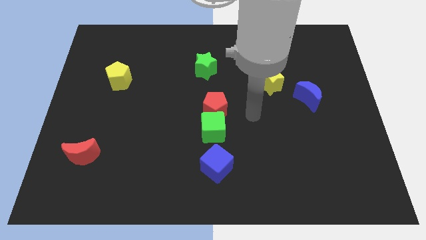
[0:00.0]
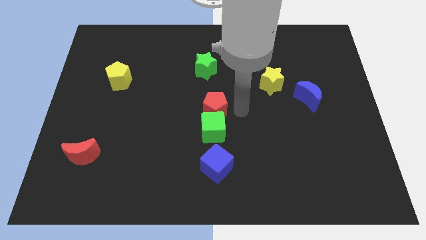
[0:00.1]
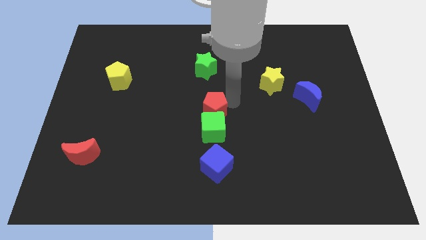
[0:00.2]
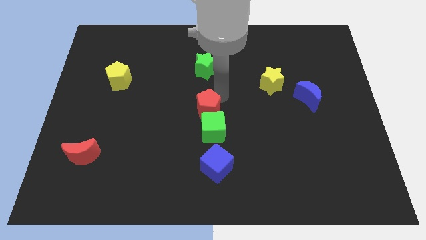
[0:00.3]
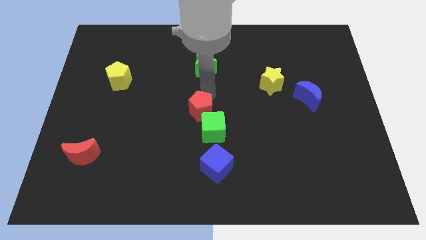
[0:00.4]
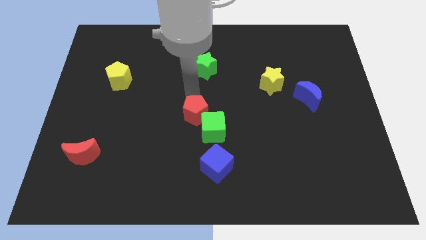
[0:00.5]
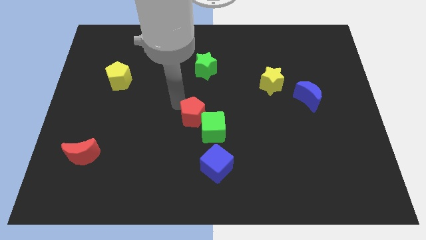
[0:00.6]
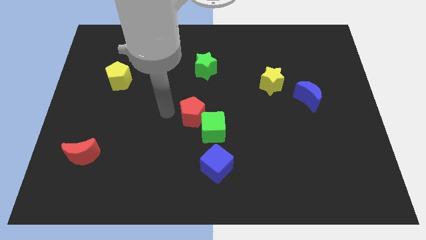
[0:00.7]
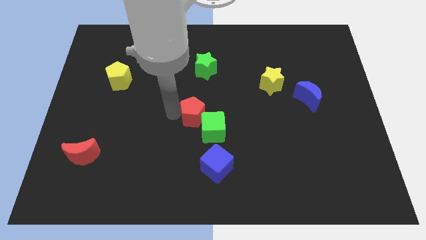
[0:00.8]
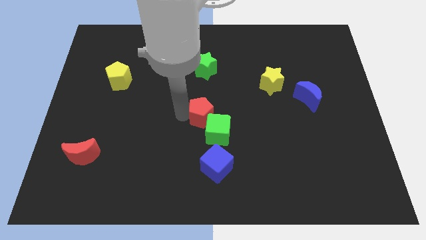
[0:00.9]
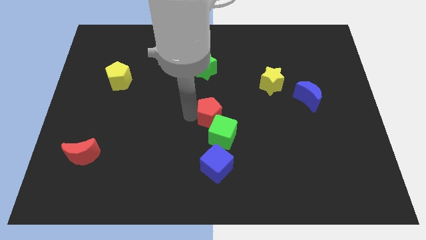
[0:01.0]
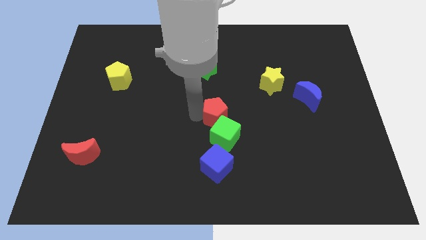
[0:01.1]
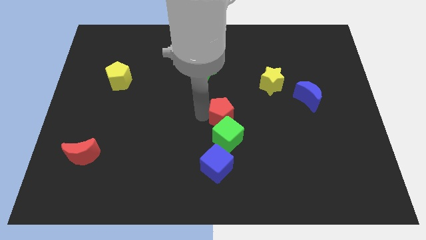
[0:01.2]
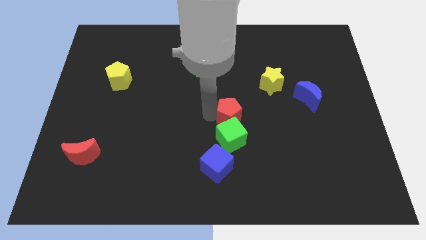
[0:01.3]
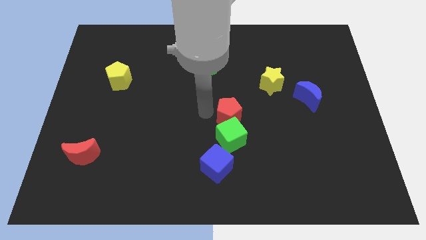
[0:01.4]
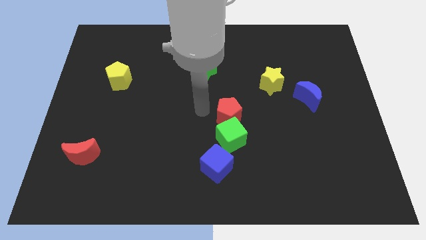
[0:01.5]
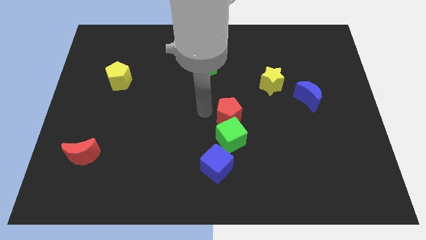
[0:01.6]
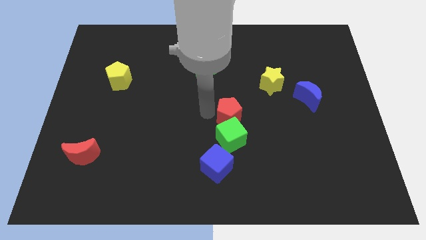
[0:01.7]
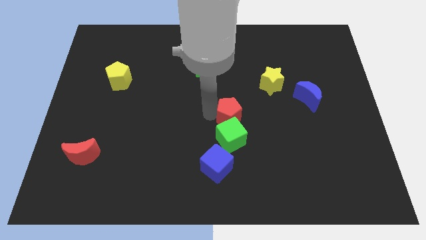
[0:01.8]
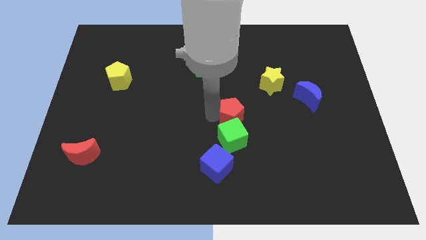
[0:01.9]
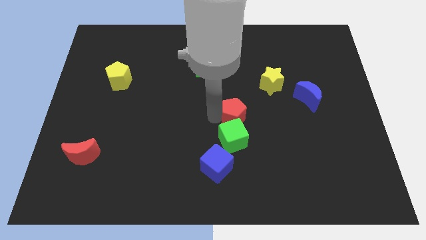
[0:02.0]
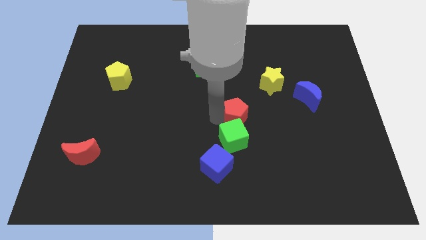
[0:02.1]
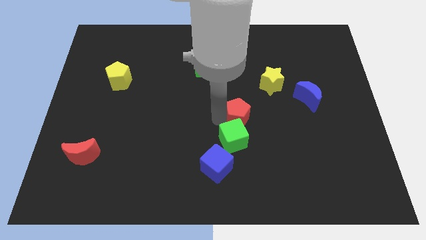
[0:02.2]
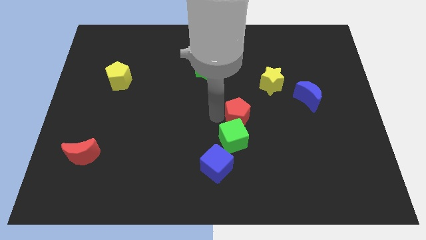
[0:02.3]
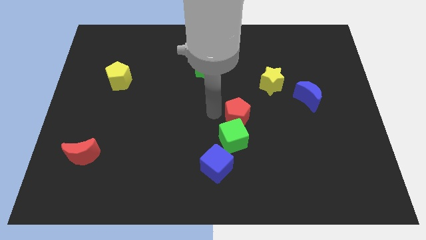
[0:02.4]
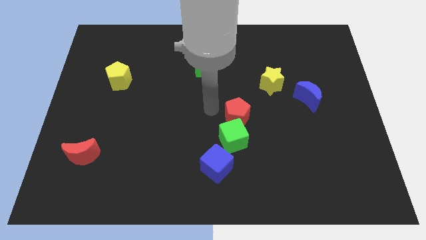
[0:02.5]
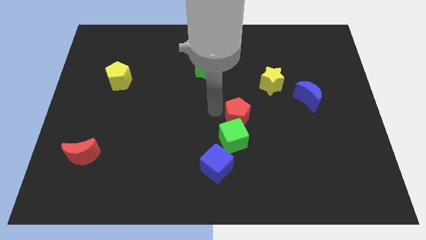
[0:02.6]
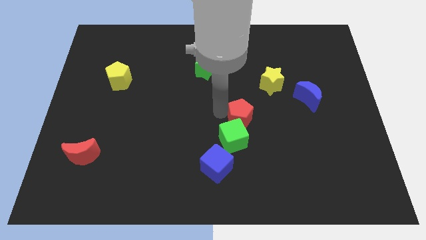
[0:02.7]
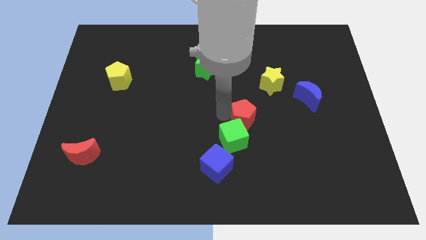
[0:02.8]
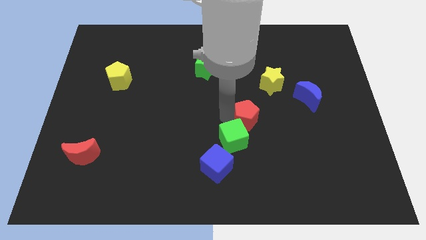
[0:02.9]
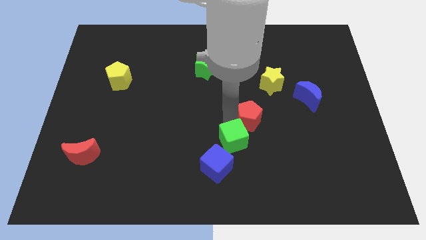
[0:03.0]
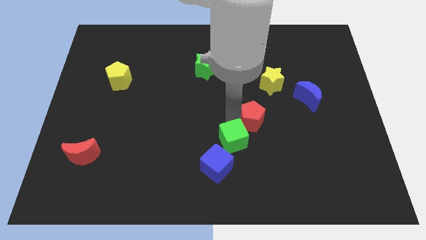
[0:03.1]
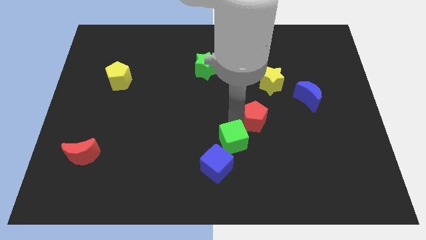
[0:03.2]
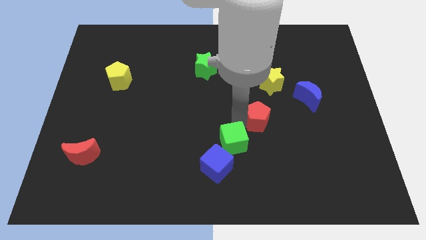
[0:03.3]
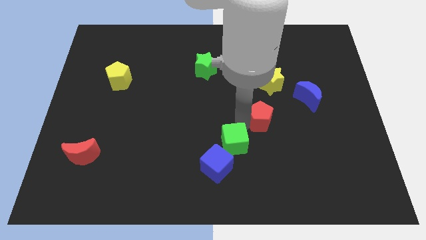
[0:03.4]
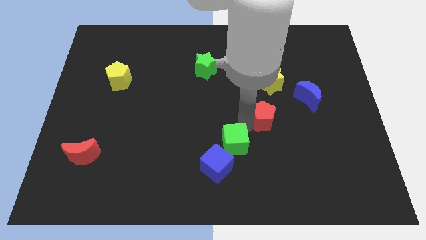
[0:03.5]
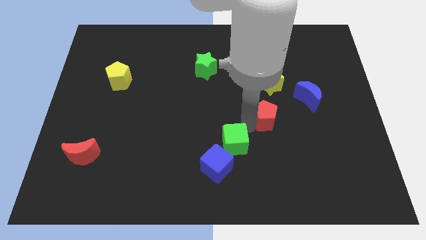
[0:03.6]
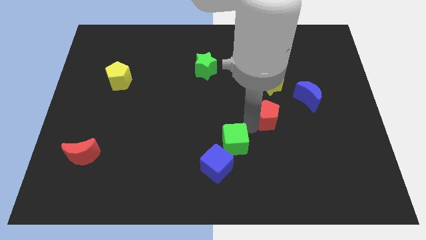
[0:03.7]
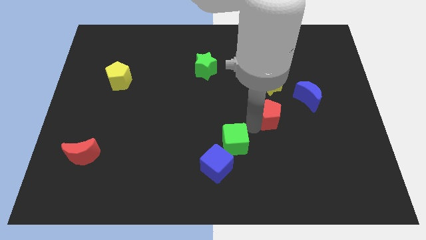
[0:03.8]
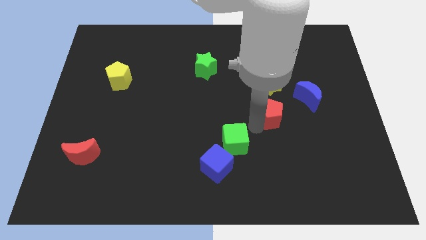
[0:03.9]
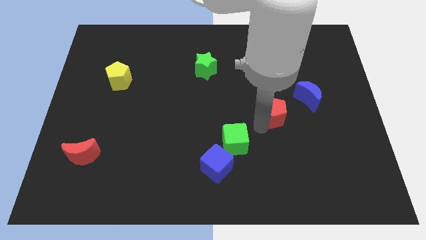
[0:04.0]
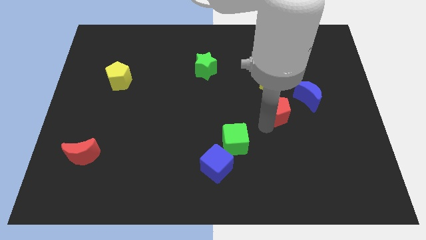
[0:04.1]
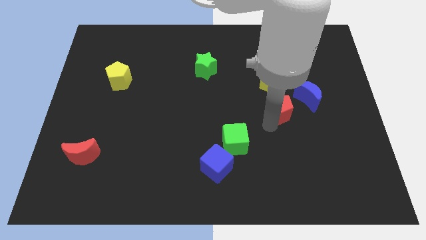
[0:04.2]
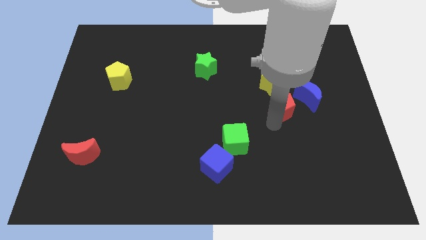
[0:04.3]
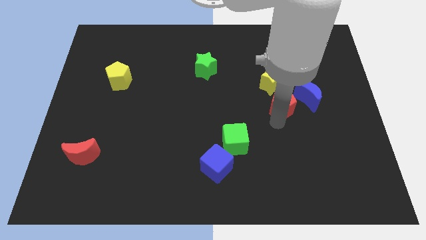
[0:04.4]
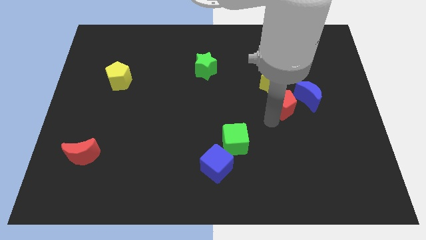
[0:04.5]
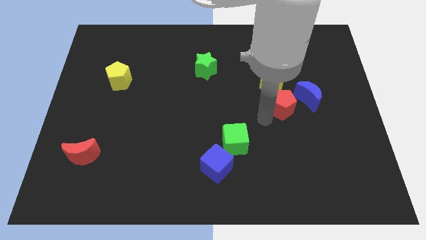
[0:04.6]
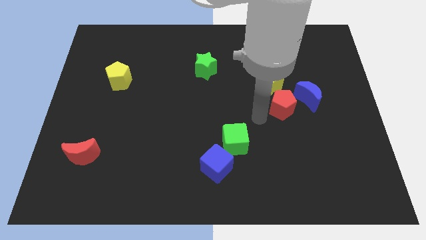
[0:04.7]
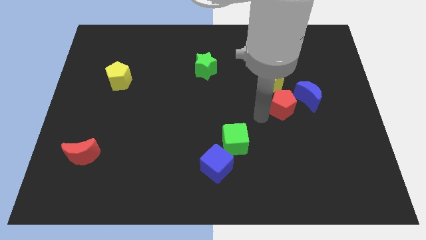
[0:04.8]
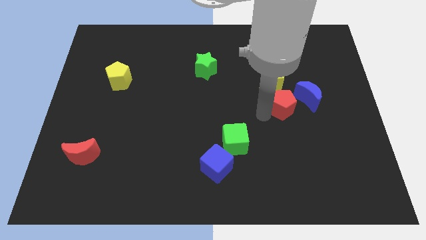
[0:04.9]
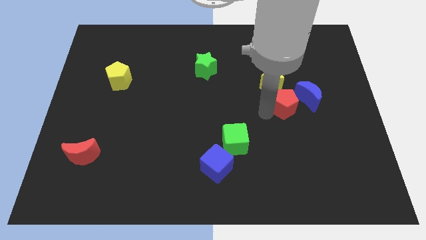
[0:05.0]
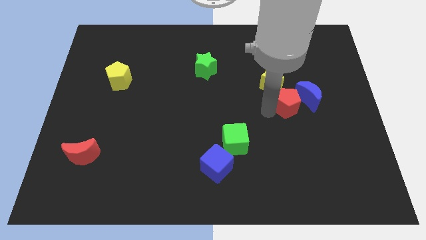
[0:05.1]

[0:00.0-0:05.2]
put the red pentagon towards the blue moon

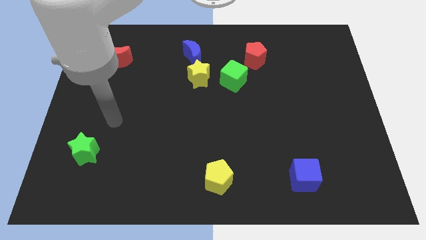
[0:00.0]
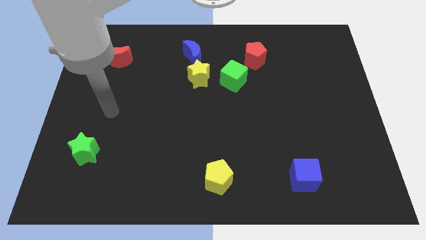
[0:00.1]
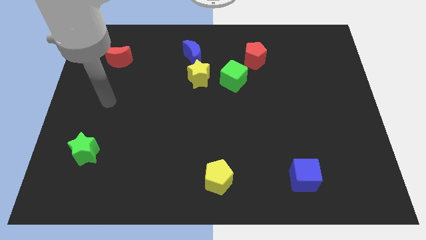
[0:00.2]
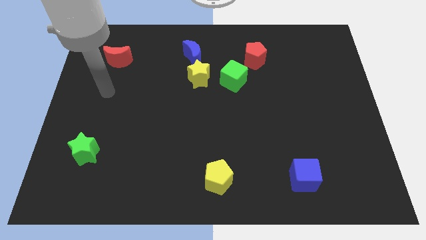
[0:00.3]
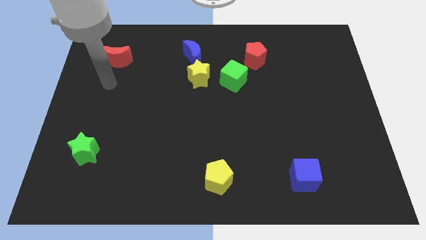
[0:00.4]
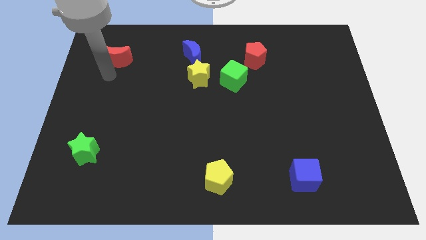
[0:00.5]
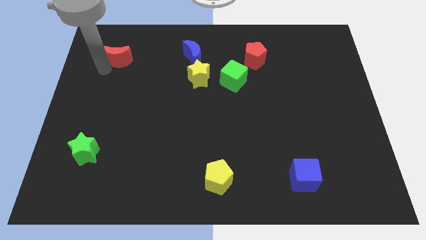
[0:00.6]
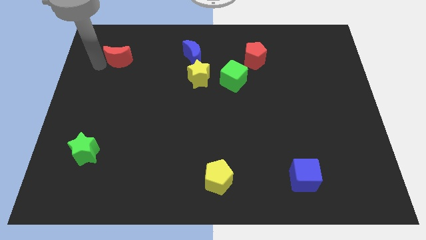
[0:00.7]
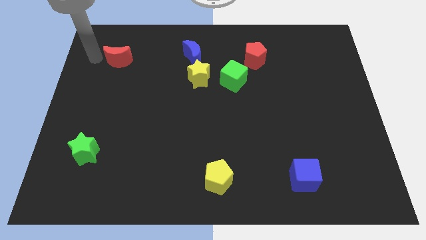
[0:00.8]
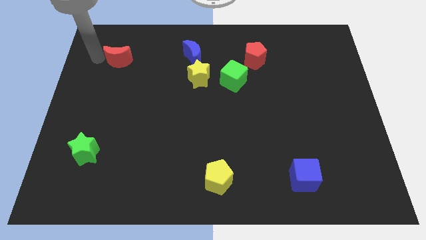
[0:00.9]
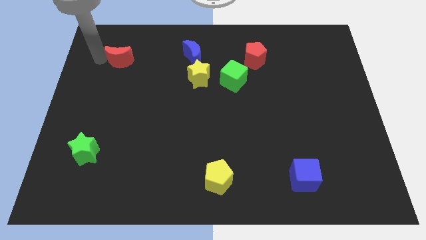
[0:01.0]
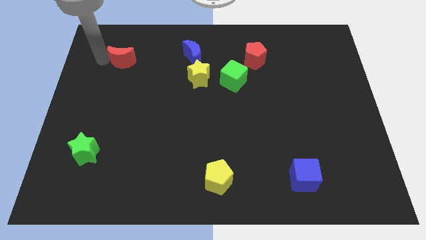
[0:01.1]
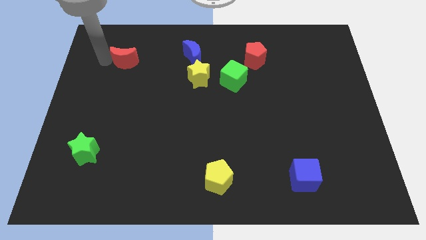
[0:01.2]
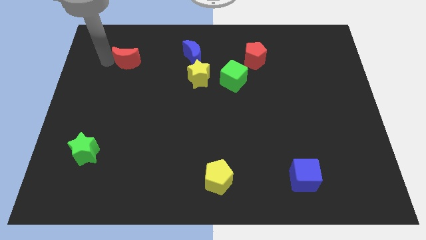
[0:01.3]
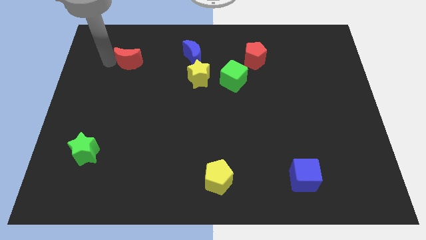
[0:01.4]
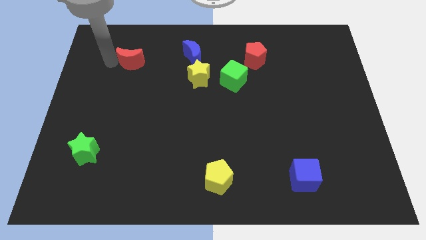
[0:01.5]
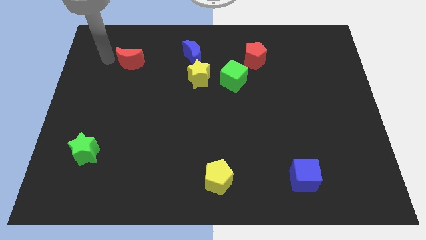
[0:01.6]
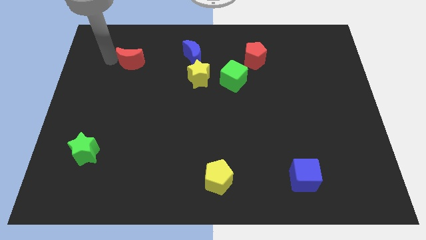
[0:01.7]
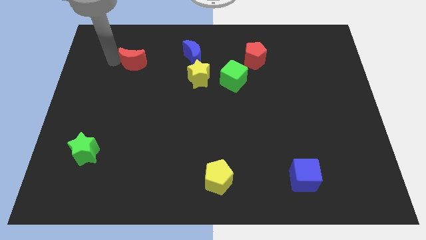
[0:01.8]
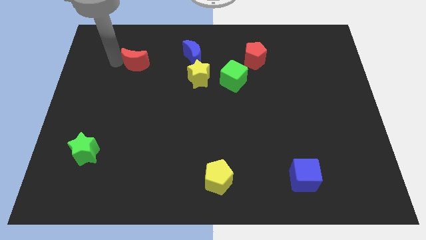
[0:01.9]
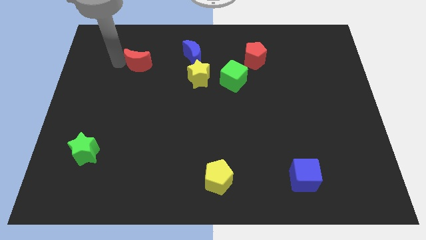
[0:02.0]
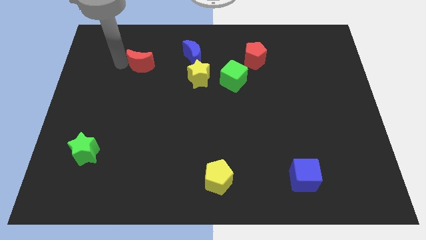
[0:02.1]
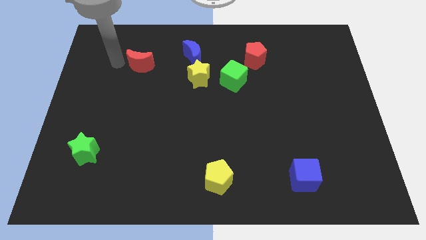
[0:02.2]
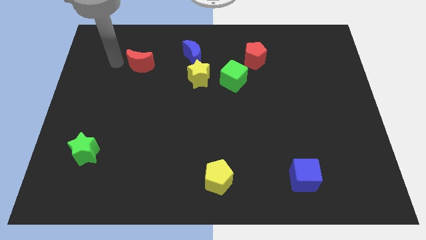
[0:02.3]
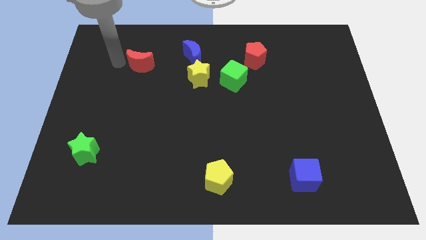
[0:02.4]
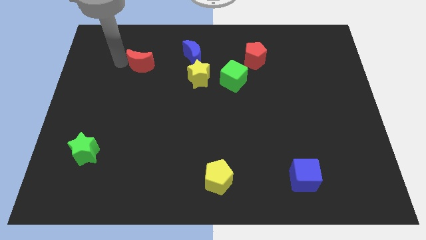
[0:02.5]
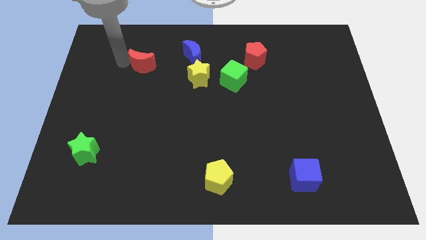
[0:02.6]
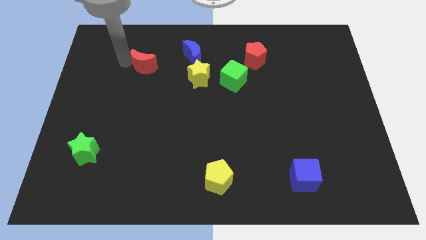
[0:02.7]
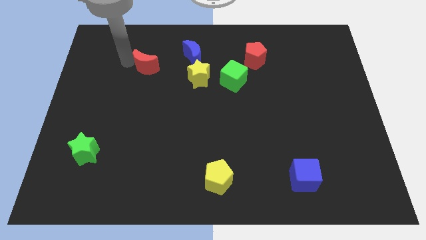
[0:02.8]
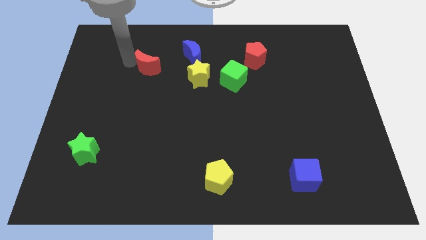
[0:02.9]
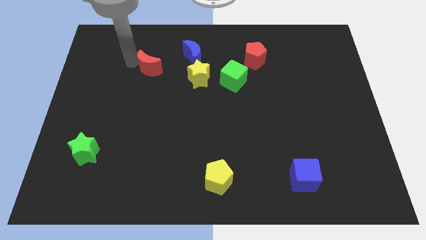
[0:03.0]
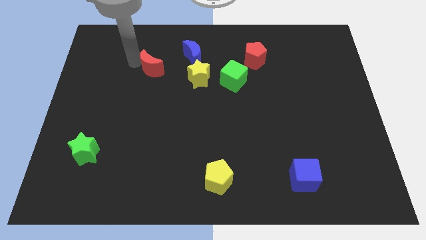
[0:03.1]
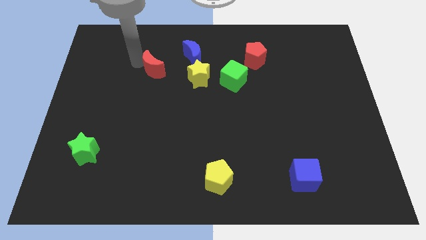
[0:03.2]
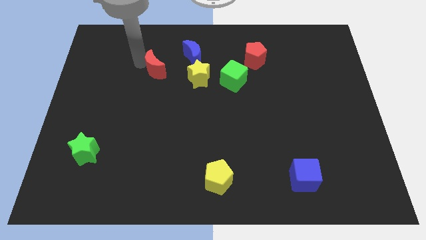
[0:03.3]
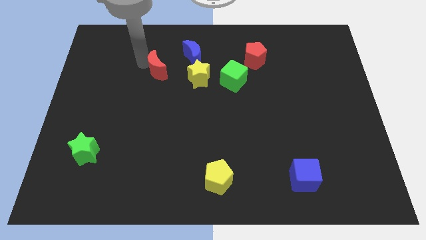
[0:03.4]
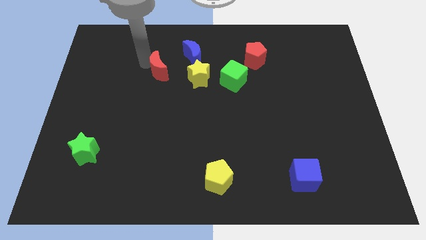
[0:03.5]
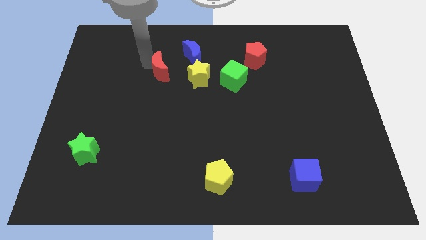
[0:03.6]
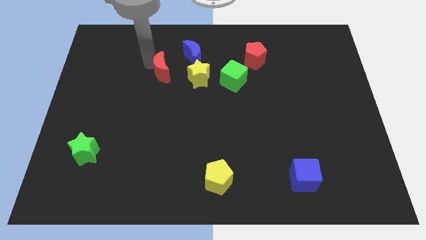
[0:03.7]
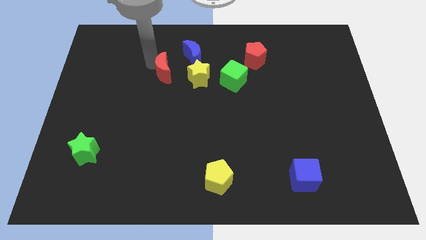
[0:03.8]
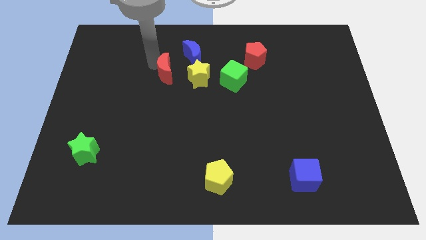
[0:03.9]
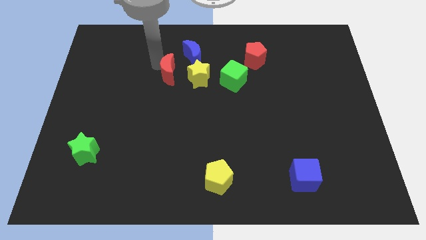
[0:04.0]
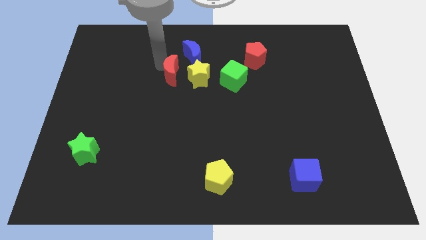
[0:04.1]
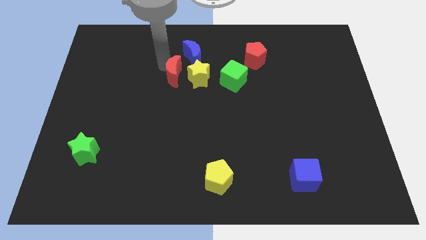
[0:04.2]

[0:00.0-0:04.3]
move the red moon next to the yellow star
